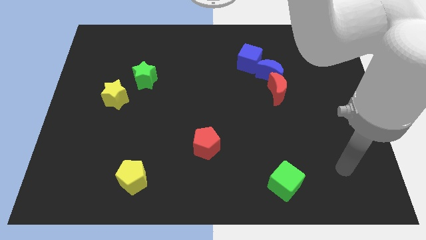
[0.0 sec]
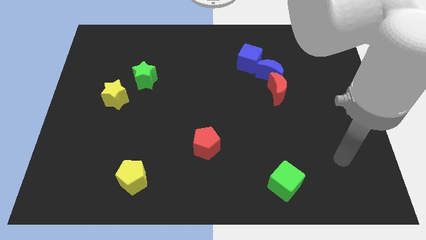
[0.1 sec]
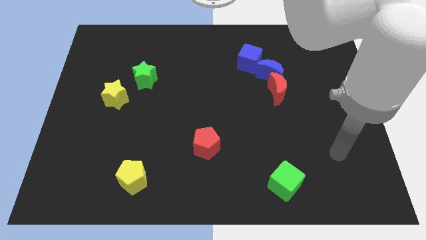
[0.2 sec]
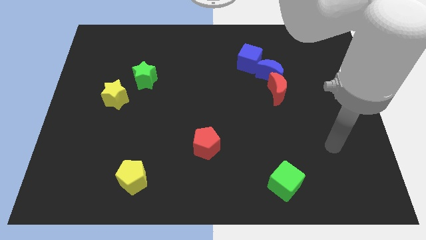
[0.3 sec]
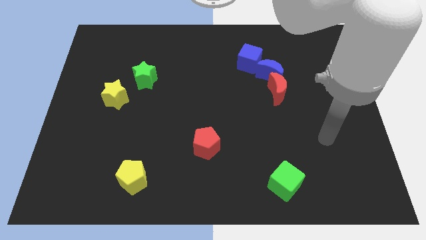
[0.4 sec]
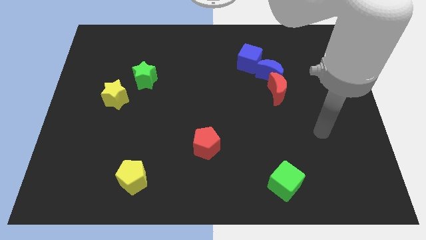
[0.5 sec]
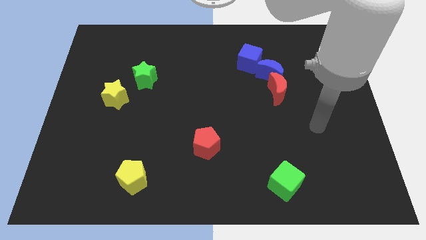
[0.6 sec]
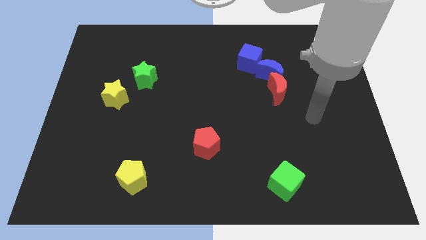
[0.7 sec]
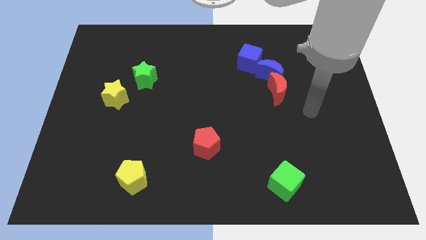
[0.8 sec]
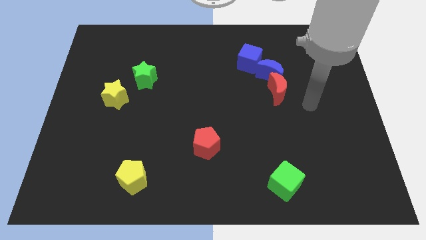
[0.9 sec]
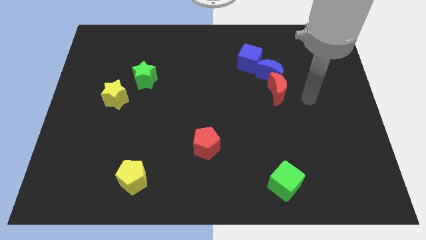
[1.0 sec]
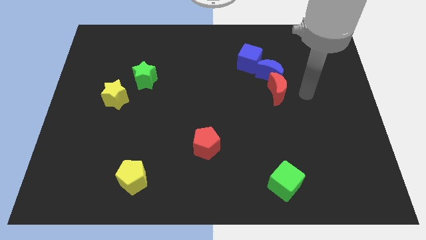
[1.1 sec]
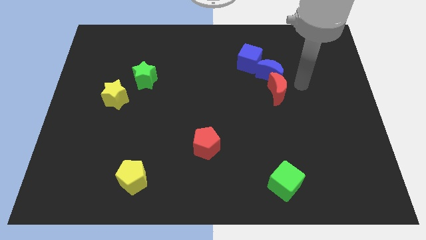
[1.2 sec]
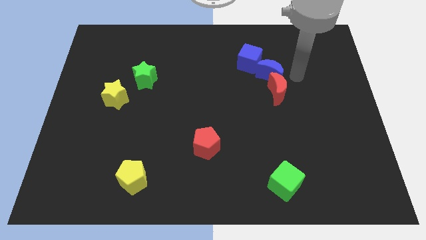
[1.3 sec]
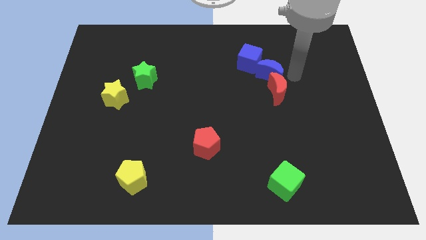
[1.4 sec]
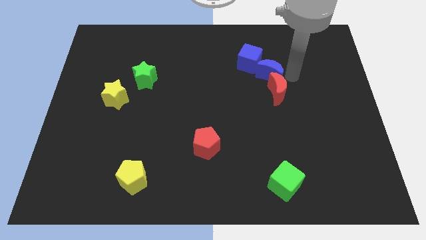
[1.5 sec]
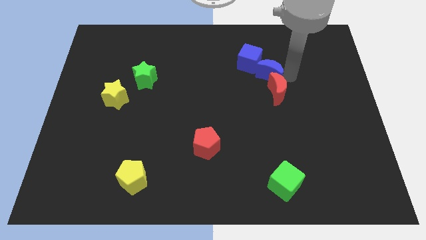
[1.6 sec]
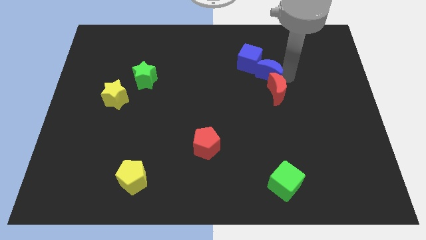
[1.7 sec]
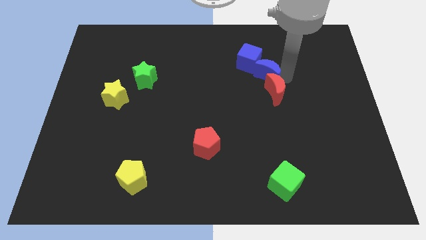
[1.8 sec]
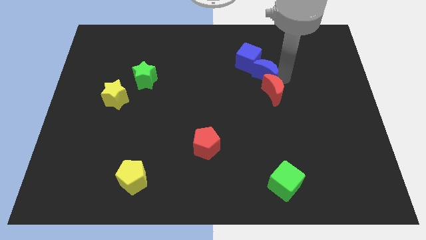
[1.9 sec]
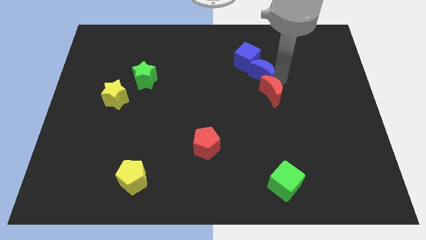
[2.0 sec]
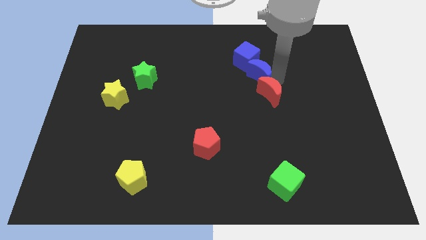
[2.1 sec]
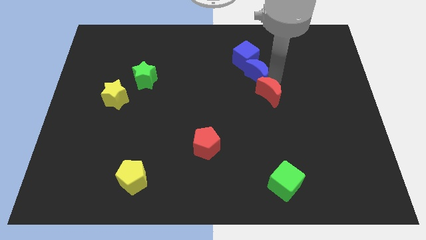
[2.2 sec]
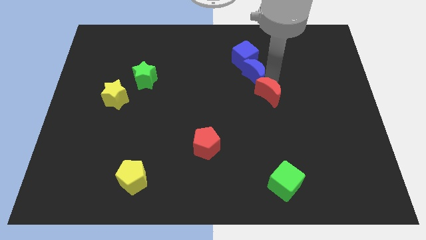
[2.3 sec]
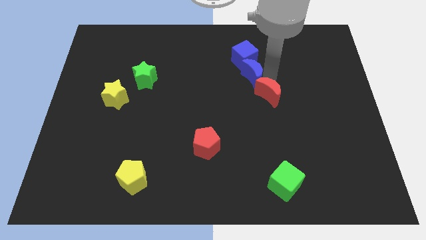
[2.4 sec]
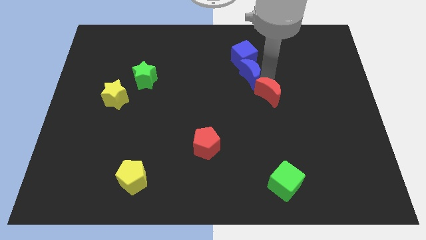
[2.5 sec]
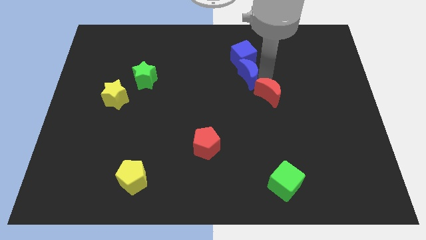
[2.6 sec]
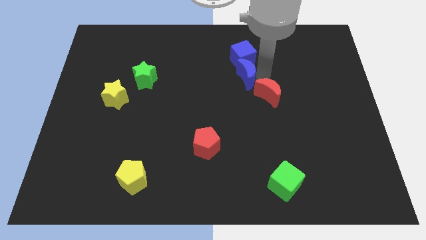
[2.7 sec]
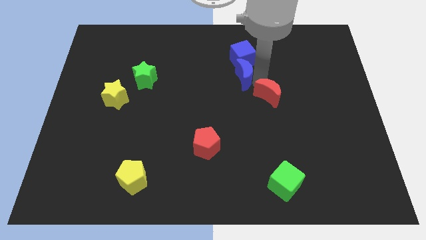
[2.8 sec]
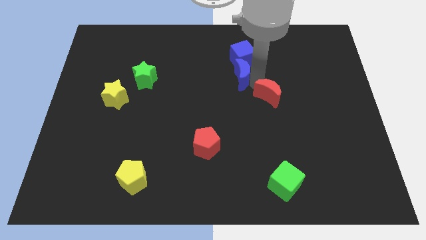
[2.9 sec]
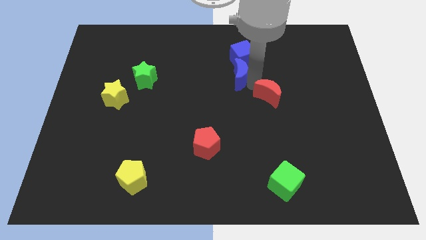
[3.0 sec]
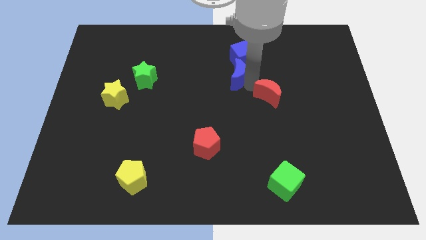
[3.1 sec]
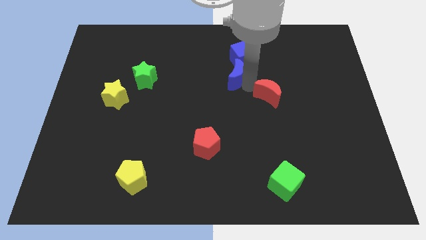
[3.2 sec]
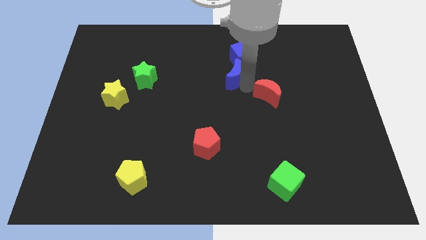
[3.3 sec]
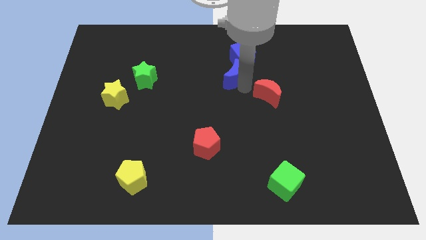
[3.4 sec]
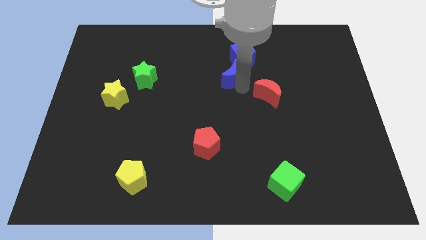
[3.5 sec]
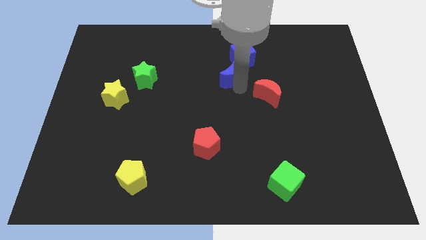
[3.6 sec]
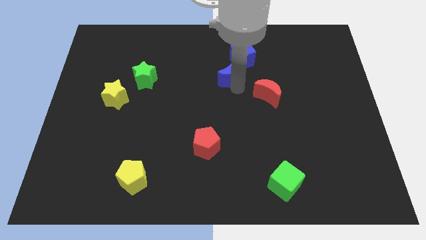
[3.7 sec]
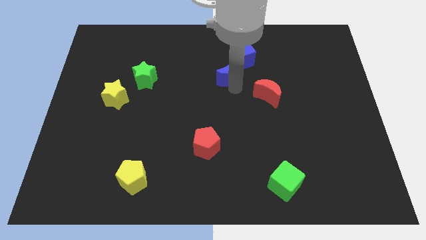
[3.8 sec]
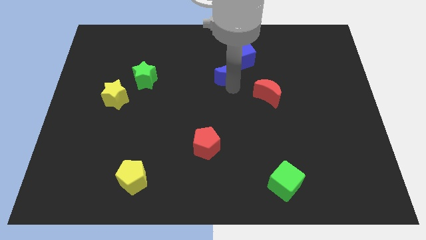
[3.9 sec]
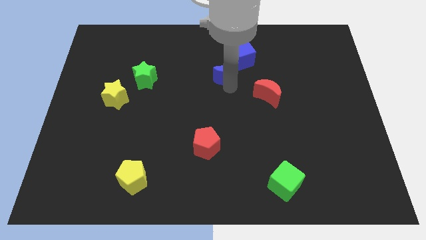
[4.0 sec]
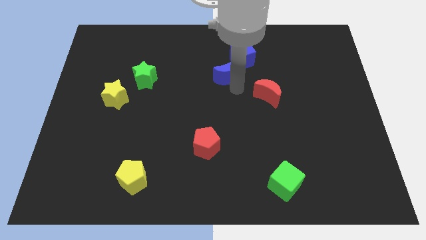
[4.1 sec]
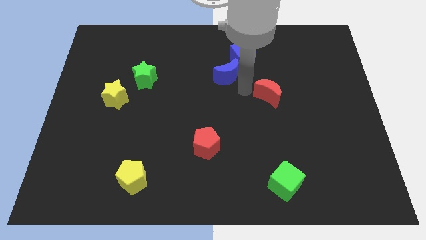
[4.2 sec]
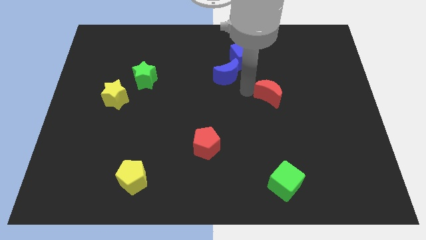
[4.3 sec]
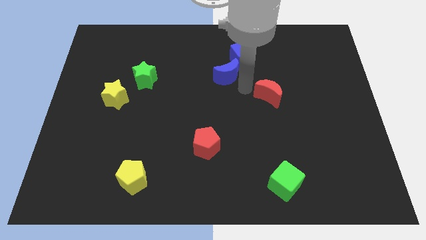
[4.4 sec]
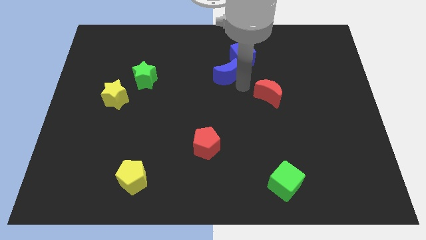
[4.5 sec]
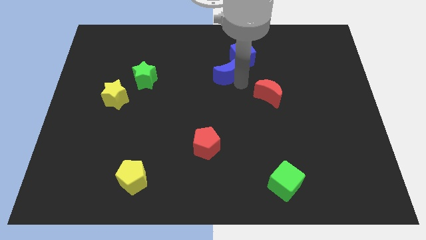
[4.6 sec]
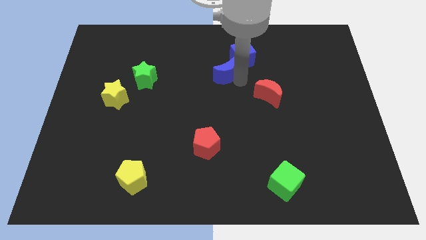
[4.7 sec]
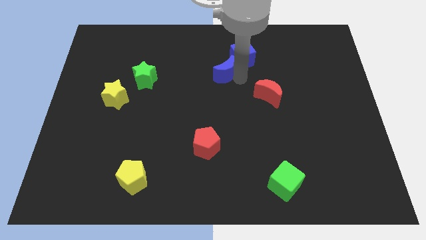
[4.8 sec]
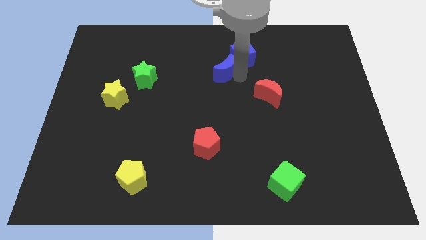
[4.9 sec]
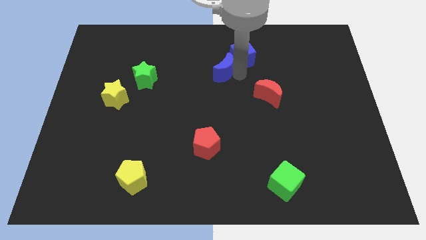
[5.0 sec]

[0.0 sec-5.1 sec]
put the blue moon to the left of the blue cube

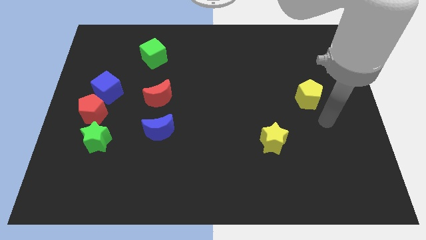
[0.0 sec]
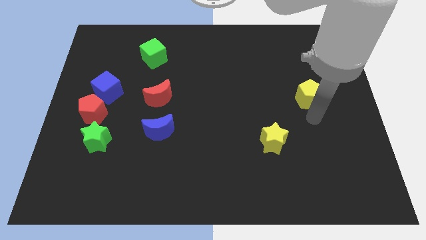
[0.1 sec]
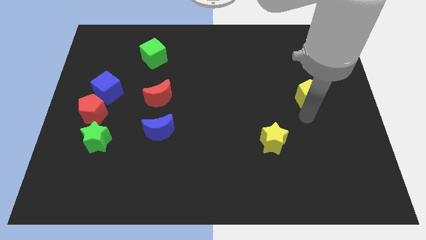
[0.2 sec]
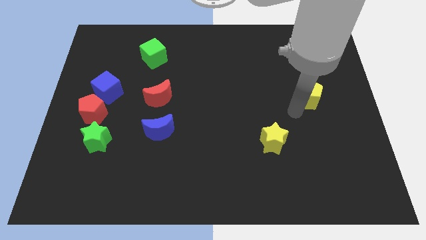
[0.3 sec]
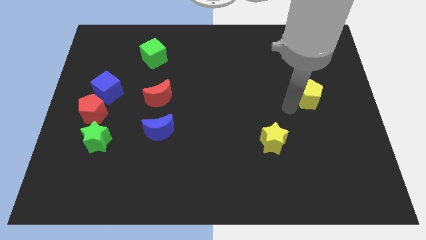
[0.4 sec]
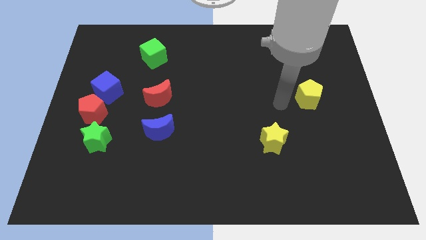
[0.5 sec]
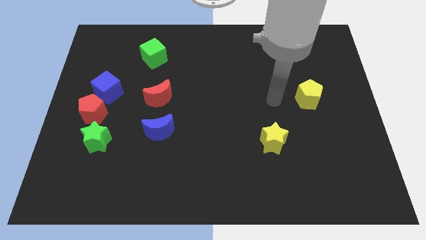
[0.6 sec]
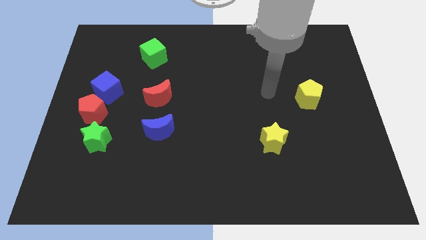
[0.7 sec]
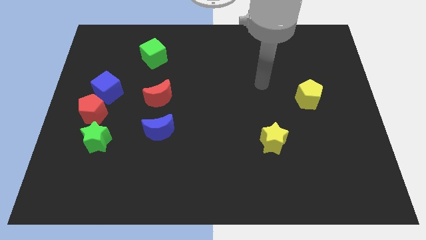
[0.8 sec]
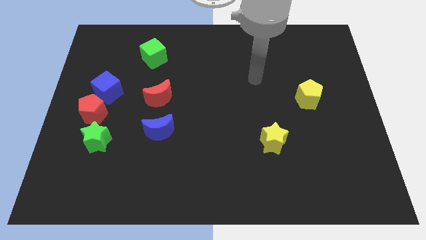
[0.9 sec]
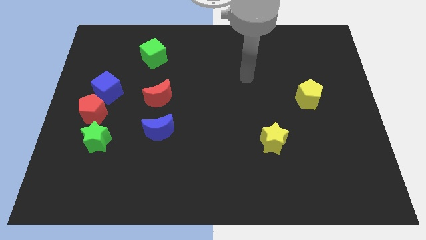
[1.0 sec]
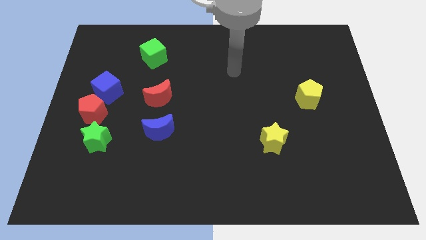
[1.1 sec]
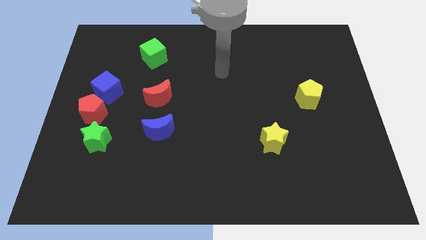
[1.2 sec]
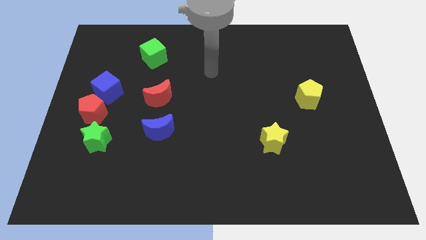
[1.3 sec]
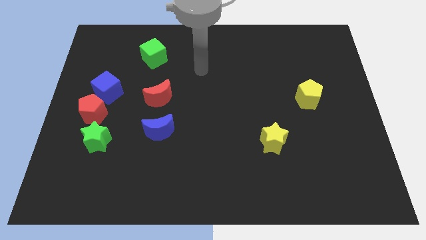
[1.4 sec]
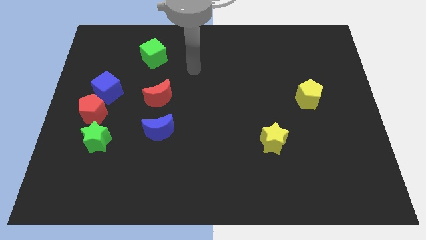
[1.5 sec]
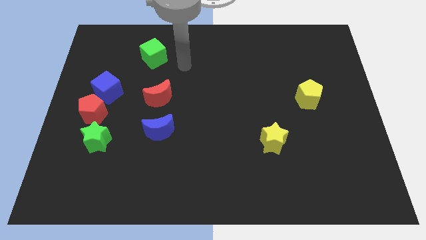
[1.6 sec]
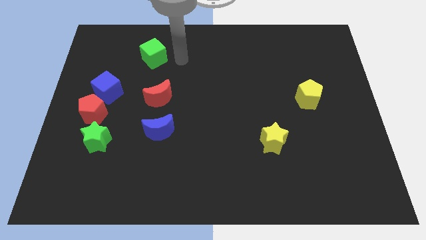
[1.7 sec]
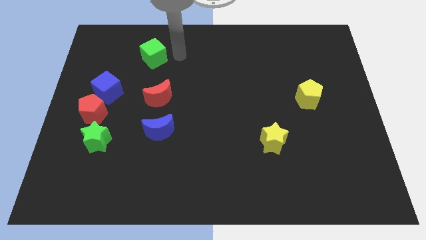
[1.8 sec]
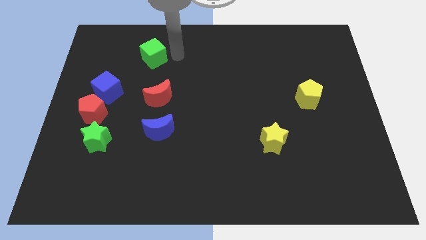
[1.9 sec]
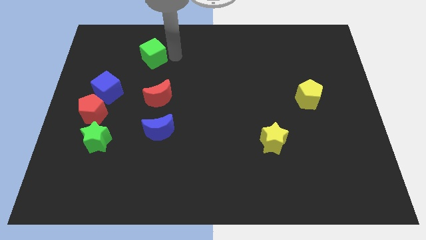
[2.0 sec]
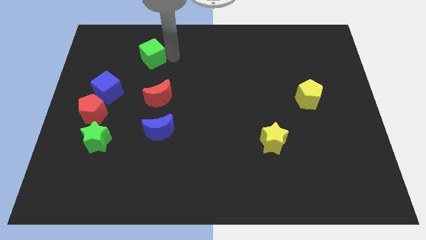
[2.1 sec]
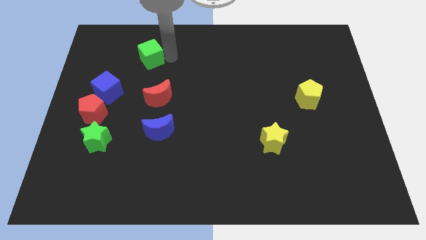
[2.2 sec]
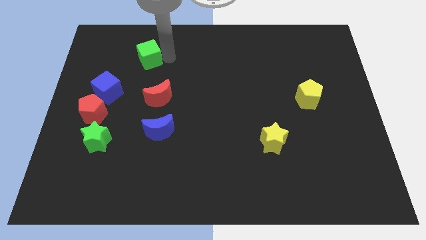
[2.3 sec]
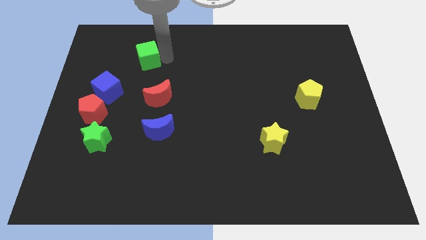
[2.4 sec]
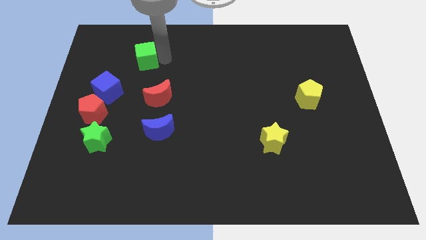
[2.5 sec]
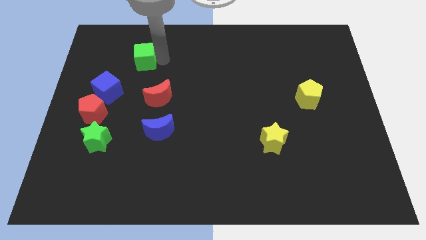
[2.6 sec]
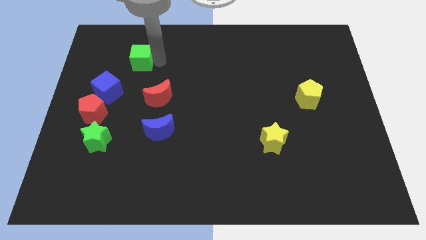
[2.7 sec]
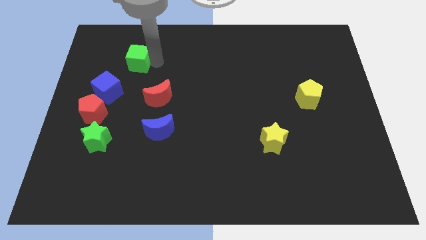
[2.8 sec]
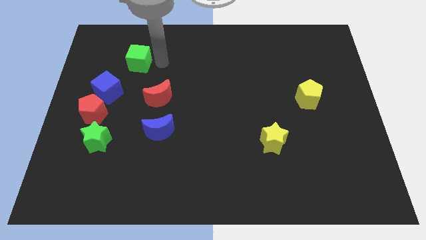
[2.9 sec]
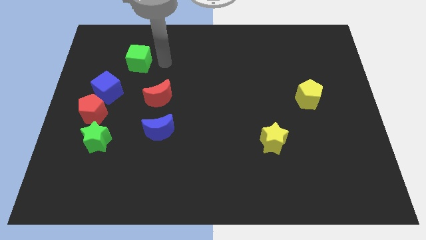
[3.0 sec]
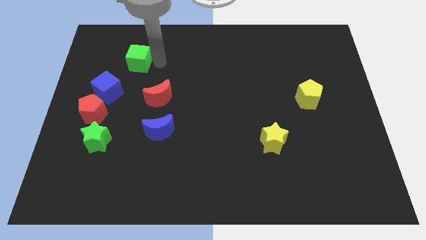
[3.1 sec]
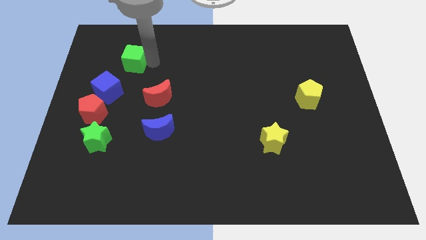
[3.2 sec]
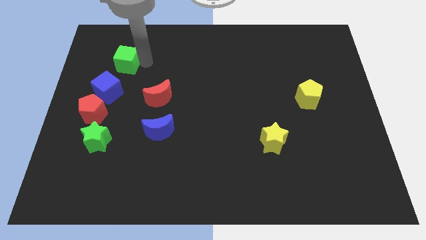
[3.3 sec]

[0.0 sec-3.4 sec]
push the green cube above the blue cube
